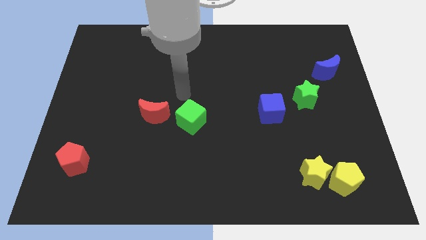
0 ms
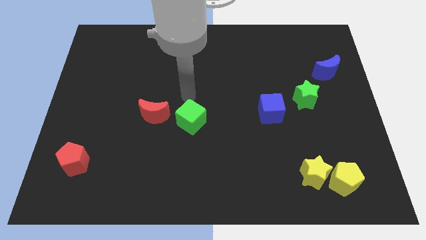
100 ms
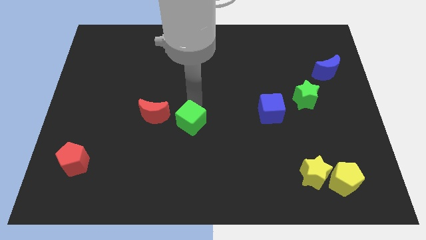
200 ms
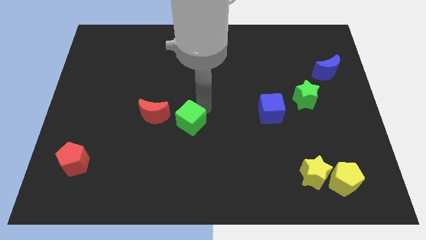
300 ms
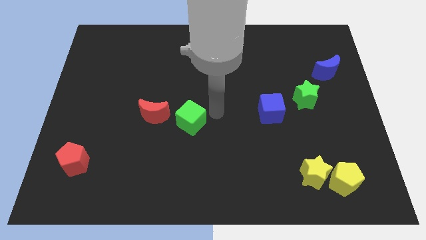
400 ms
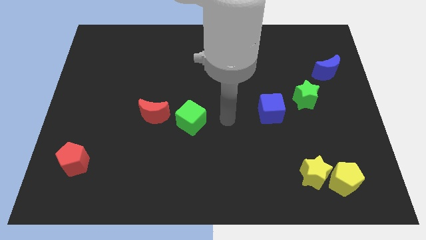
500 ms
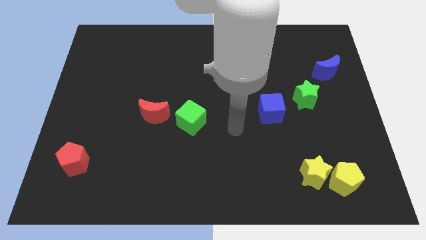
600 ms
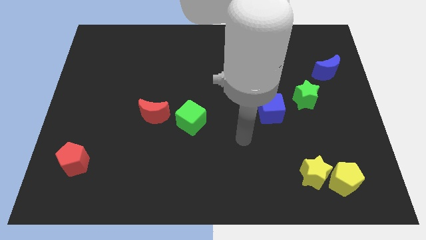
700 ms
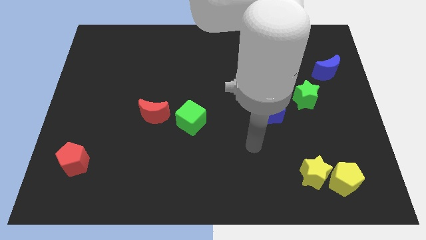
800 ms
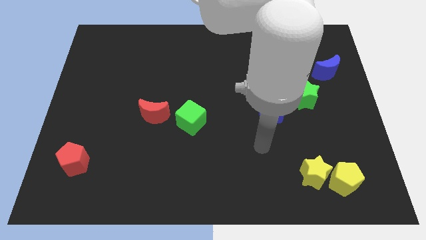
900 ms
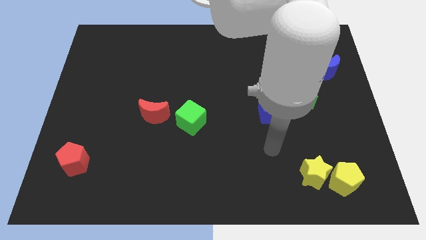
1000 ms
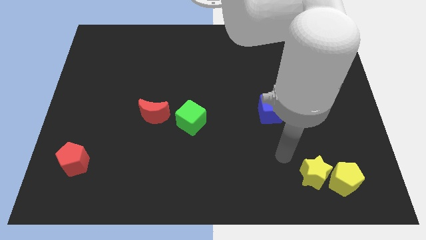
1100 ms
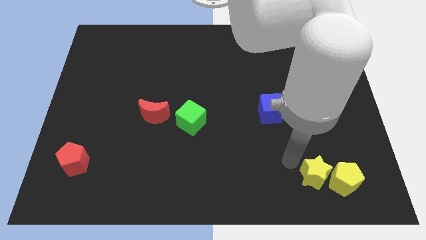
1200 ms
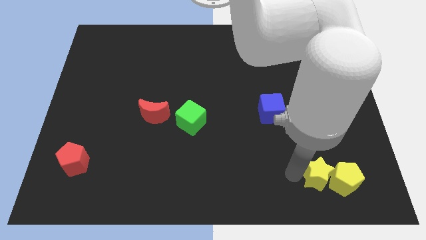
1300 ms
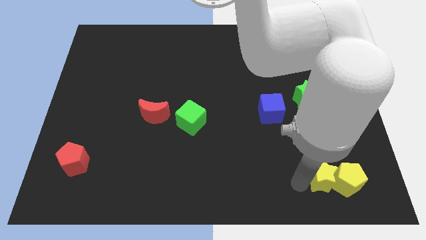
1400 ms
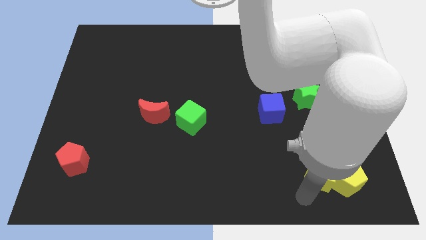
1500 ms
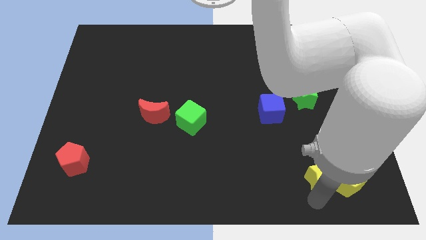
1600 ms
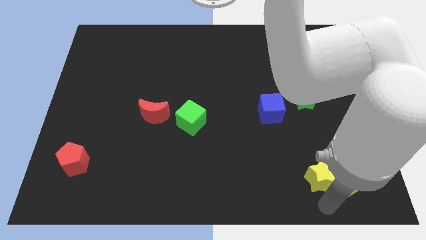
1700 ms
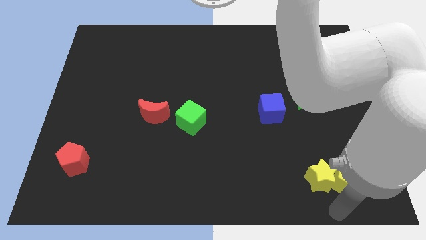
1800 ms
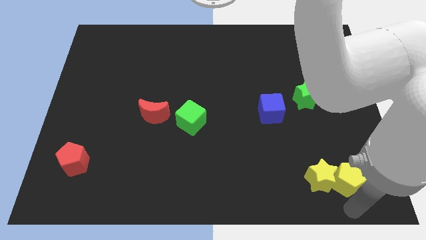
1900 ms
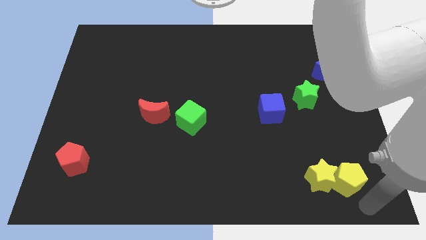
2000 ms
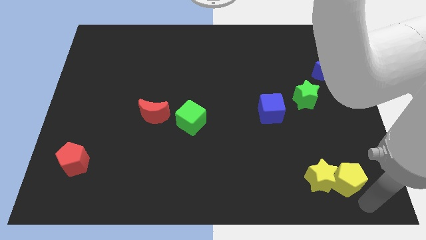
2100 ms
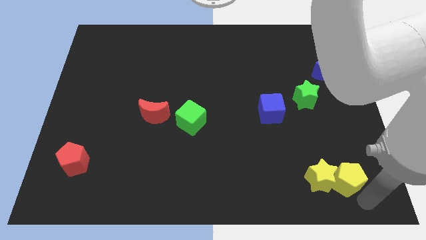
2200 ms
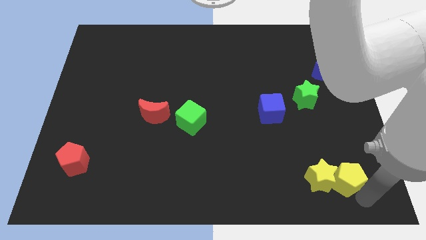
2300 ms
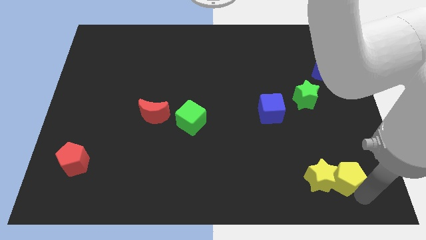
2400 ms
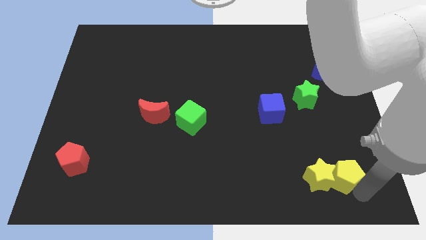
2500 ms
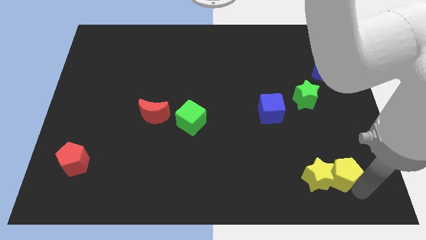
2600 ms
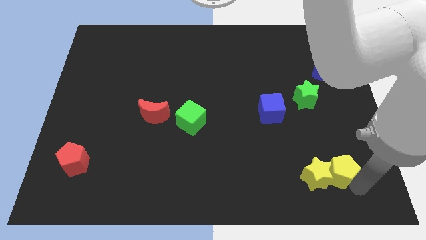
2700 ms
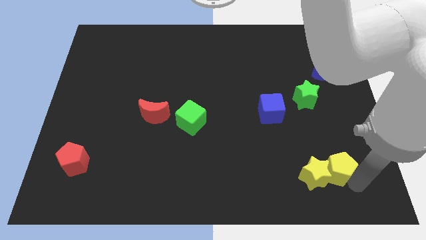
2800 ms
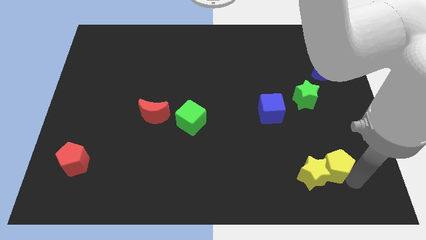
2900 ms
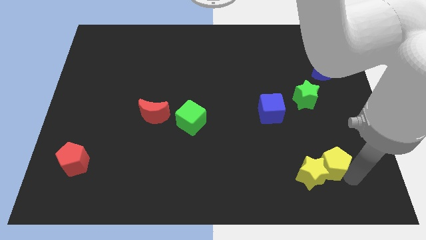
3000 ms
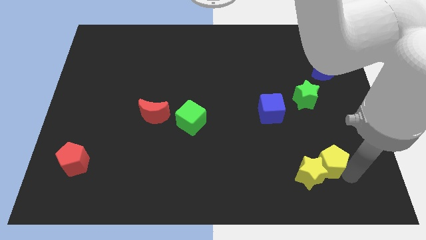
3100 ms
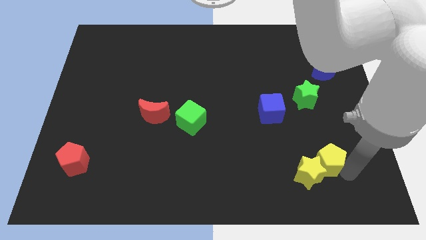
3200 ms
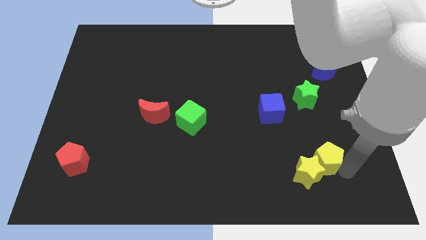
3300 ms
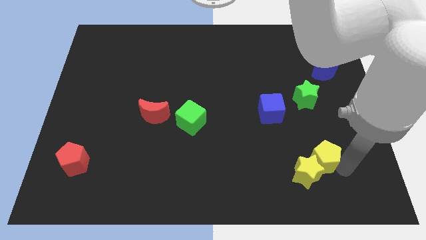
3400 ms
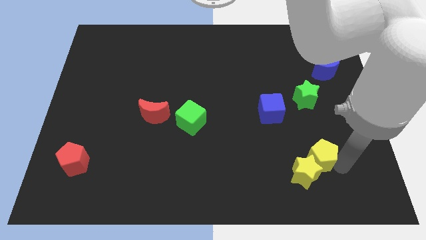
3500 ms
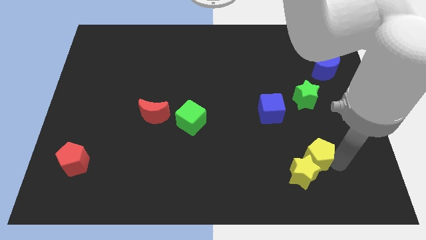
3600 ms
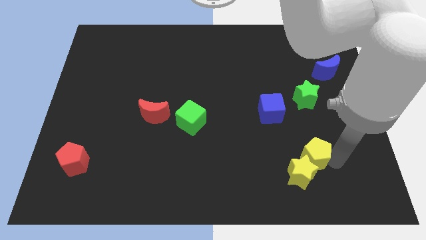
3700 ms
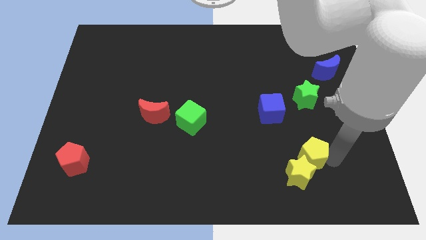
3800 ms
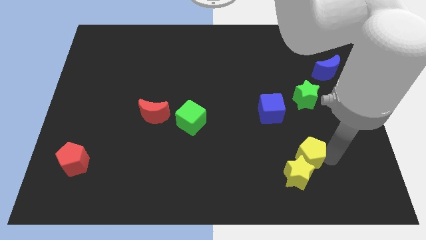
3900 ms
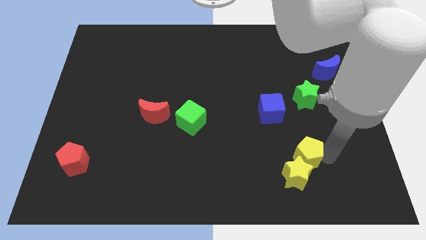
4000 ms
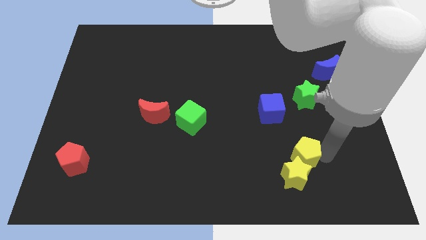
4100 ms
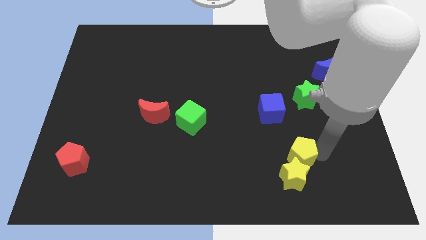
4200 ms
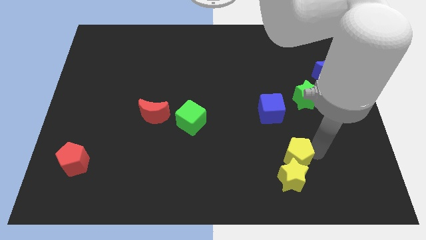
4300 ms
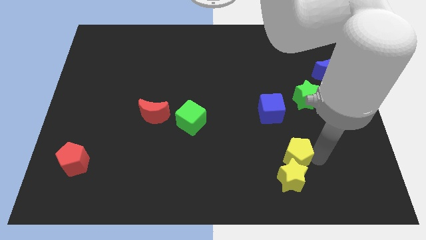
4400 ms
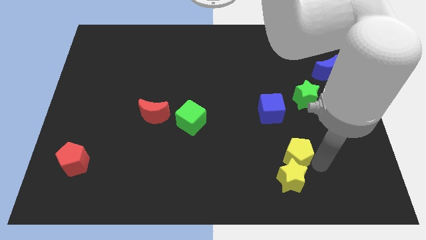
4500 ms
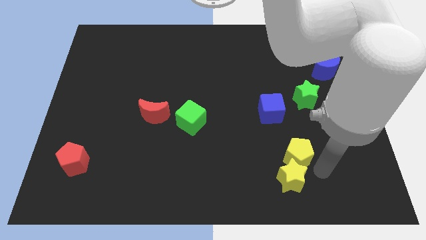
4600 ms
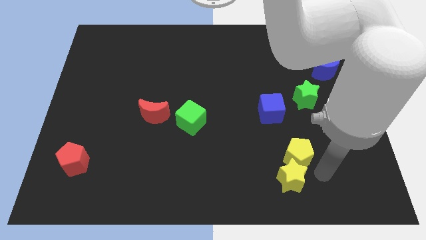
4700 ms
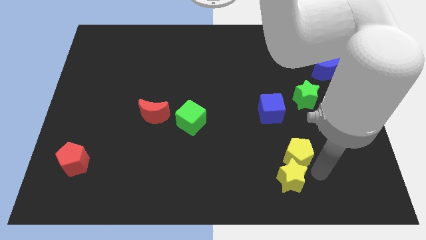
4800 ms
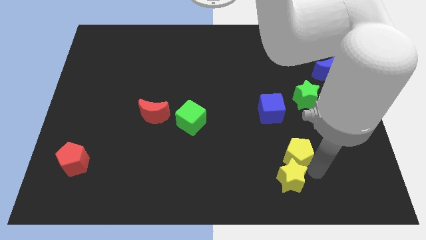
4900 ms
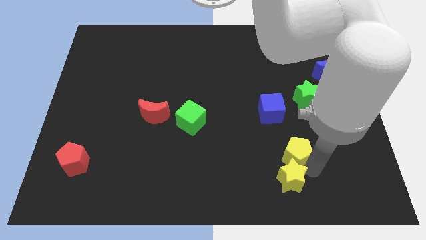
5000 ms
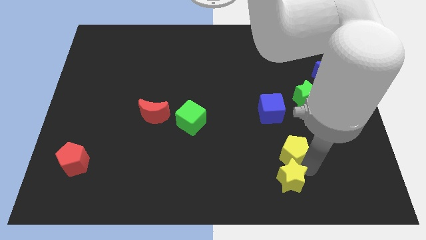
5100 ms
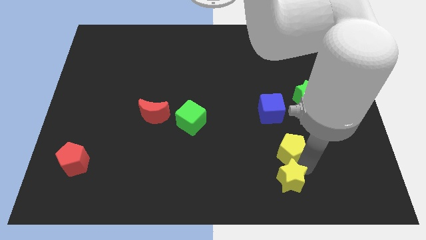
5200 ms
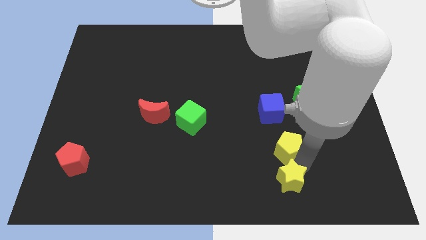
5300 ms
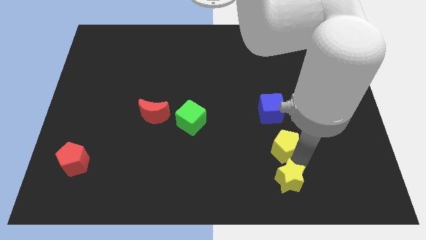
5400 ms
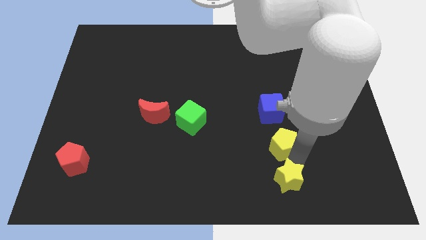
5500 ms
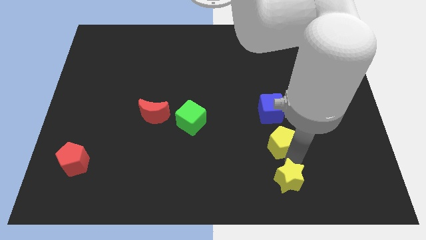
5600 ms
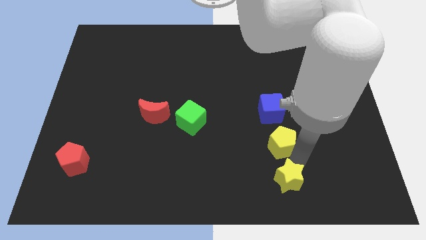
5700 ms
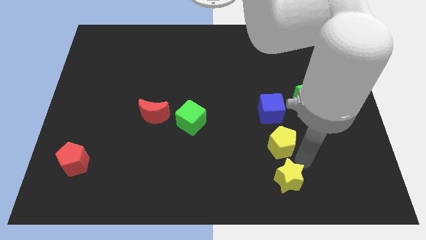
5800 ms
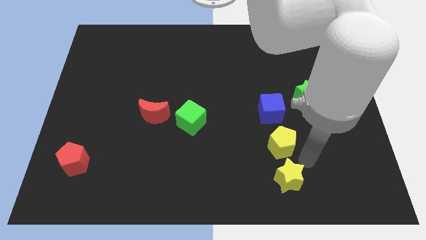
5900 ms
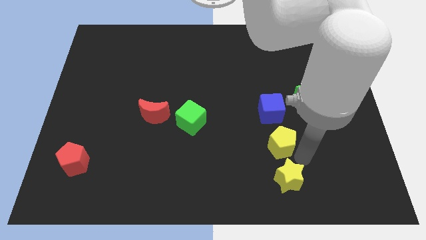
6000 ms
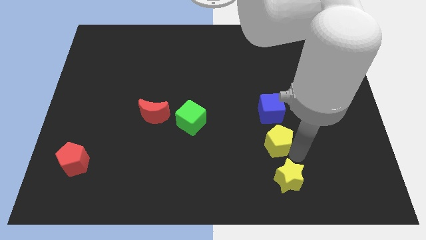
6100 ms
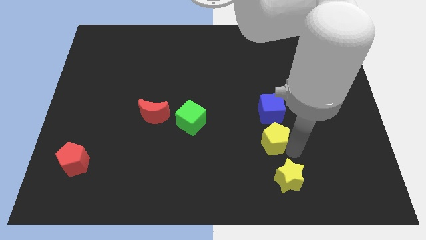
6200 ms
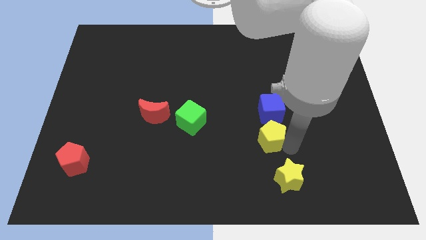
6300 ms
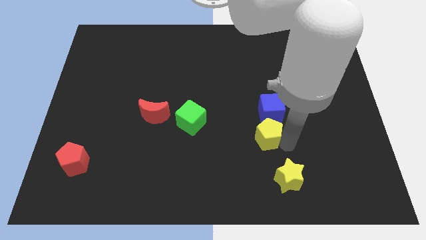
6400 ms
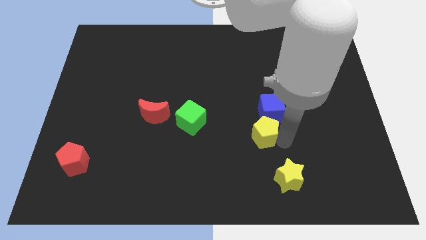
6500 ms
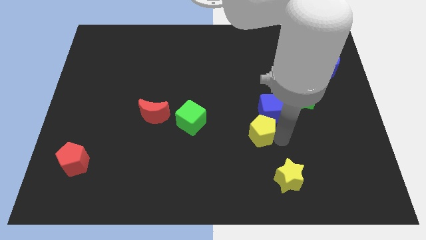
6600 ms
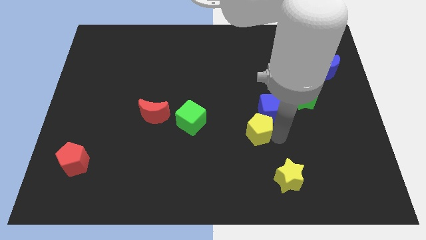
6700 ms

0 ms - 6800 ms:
push the yellow pentagon just right of the green cube

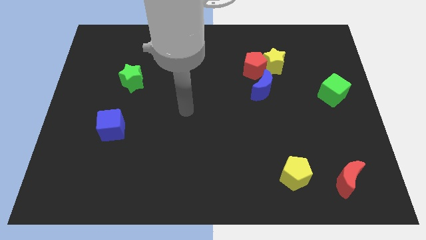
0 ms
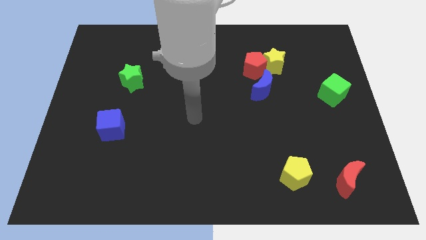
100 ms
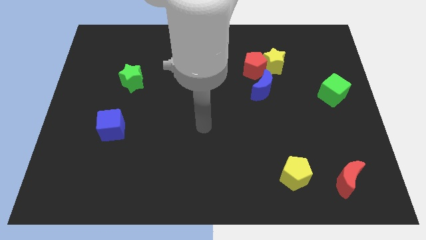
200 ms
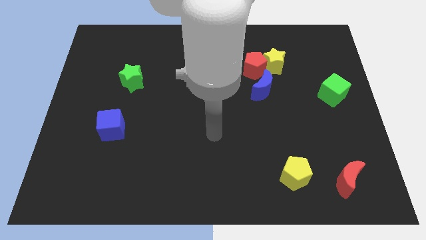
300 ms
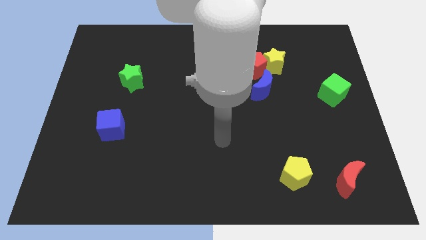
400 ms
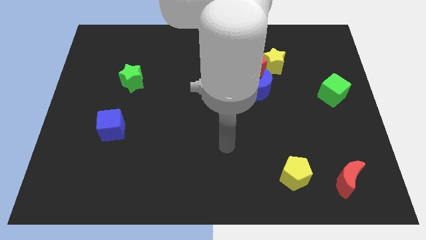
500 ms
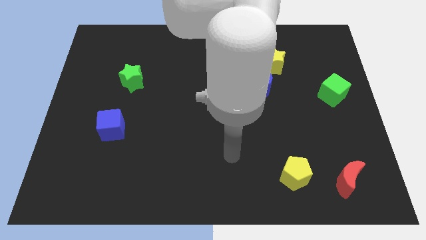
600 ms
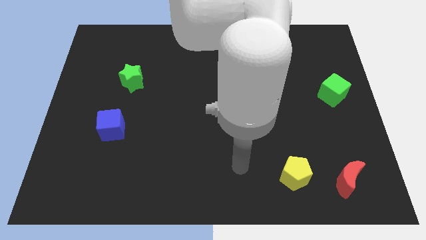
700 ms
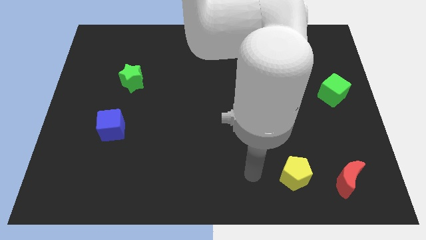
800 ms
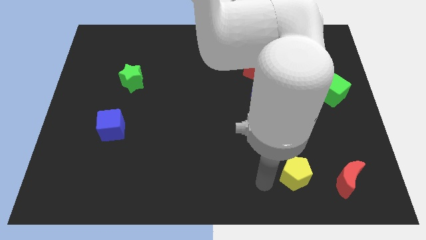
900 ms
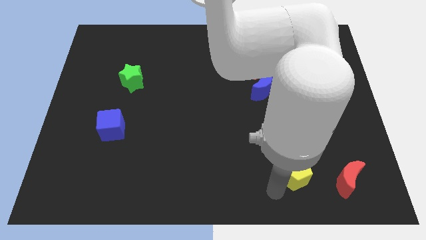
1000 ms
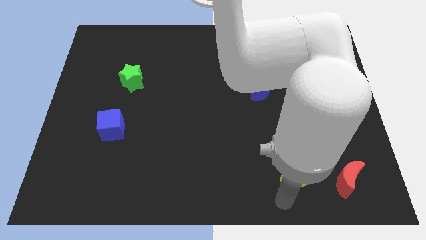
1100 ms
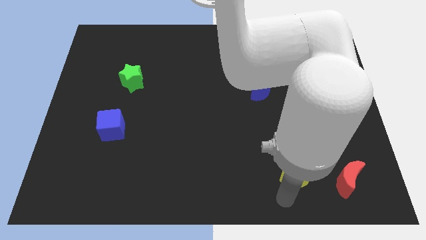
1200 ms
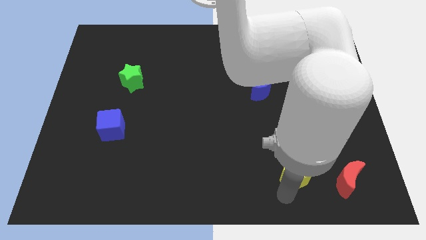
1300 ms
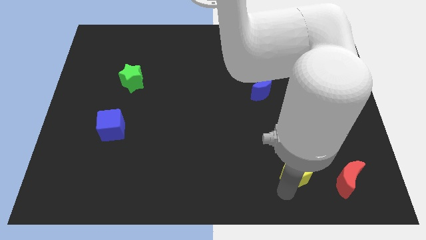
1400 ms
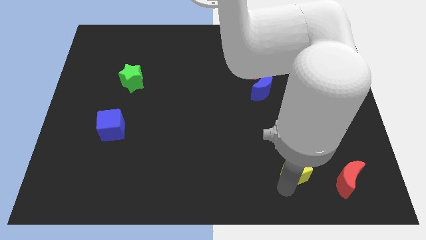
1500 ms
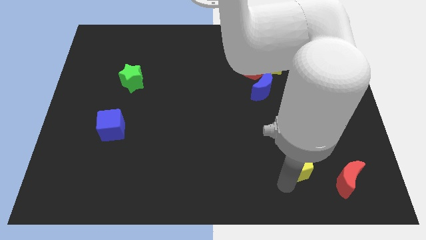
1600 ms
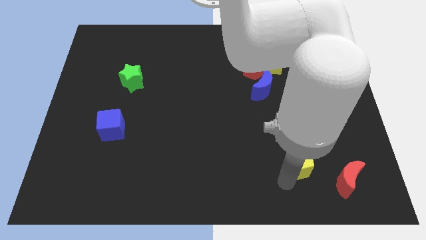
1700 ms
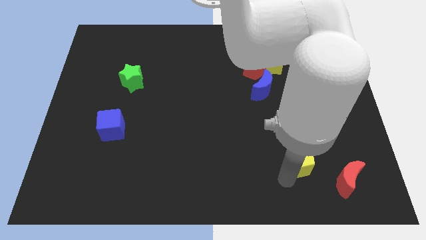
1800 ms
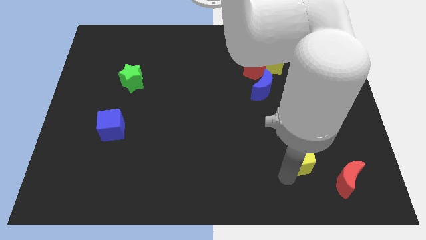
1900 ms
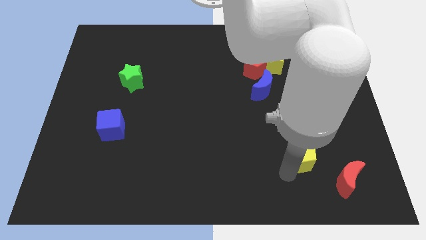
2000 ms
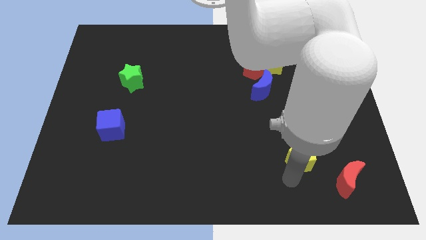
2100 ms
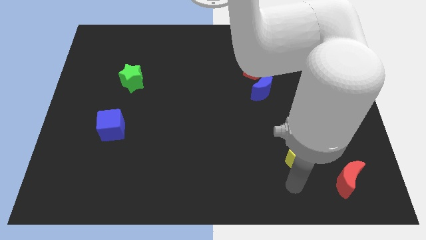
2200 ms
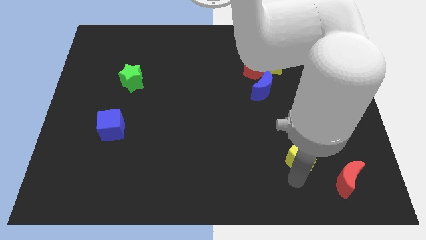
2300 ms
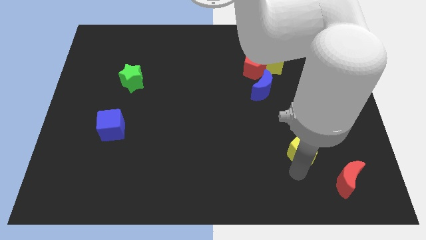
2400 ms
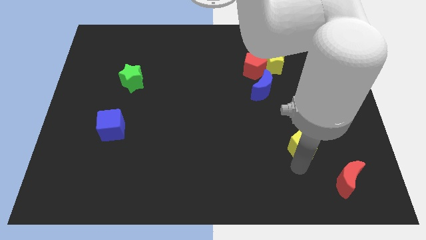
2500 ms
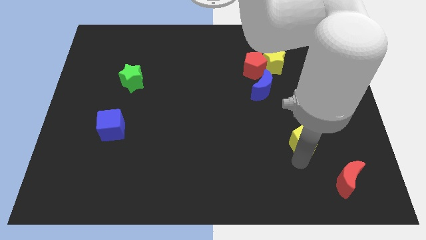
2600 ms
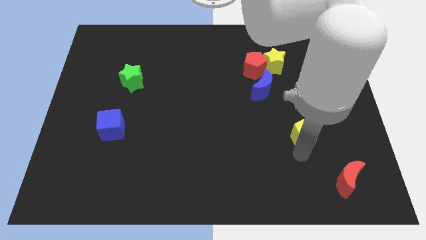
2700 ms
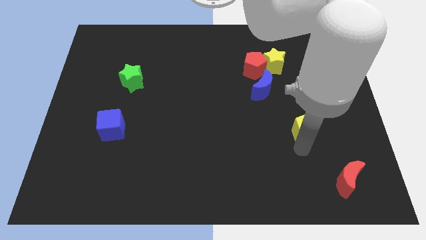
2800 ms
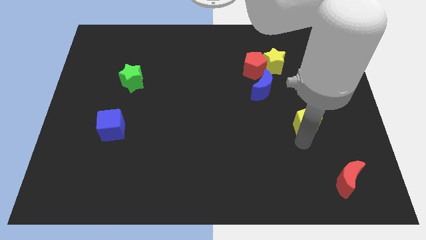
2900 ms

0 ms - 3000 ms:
move the yellow pentagon to the bottom left of the green cube
